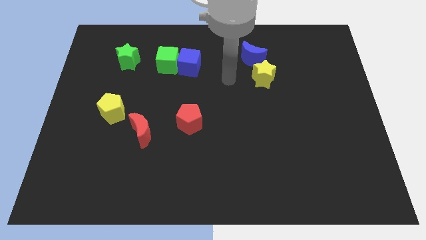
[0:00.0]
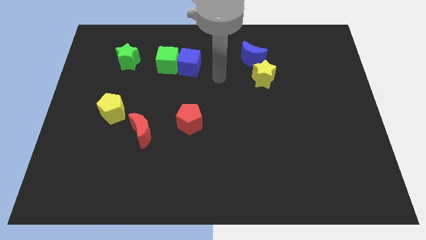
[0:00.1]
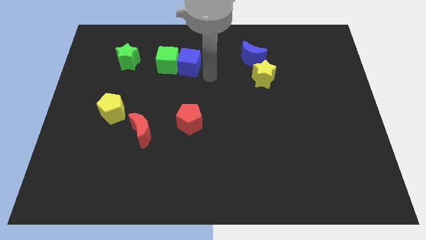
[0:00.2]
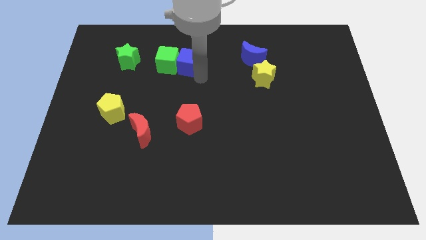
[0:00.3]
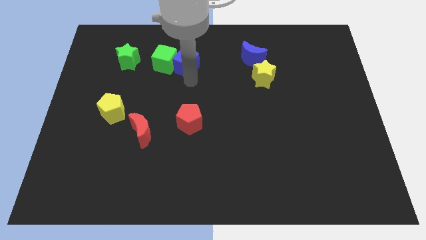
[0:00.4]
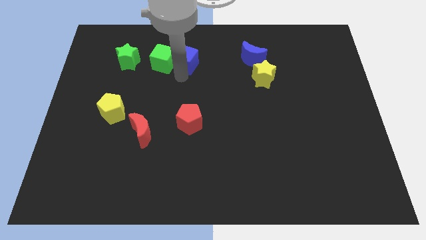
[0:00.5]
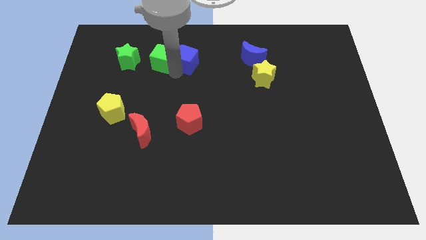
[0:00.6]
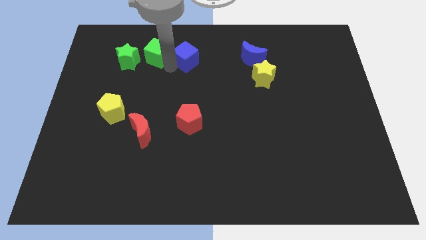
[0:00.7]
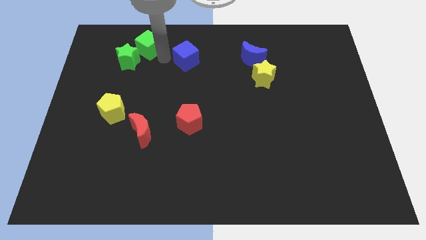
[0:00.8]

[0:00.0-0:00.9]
pull the blue cube apart from the green cube

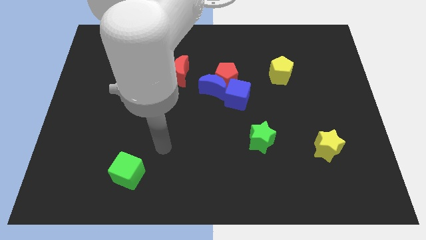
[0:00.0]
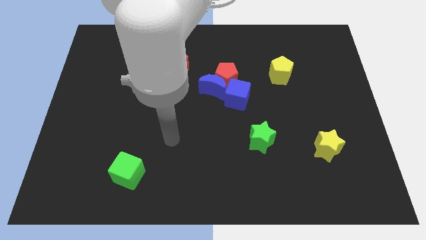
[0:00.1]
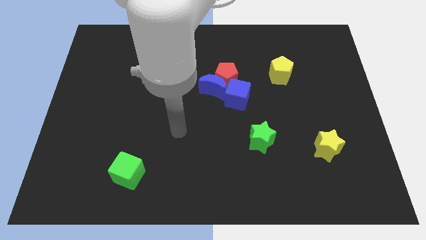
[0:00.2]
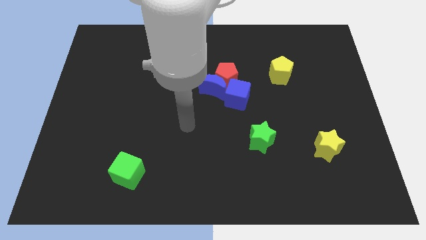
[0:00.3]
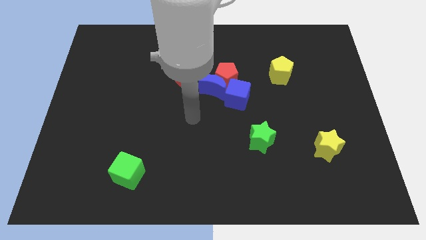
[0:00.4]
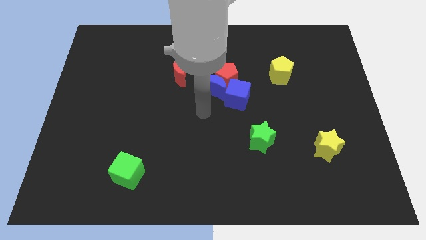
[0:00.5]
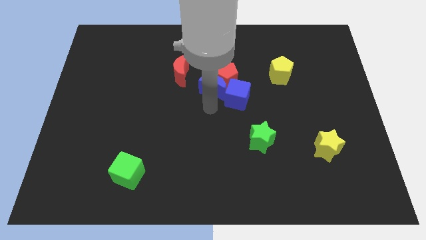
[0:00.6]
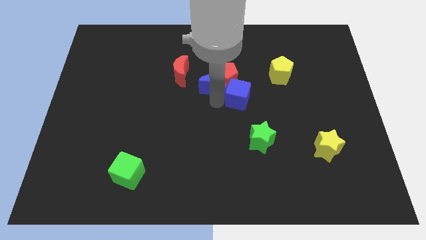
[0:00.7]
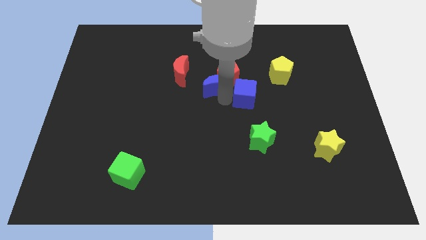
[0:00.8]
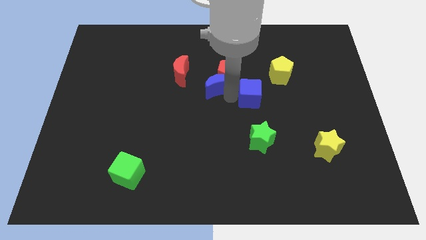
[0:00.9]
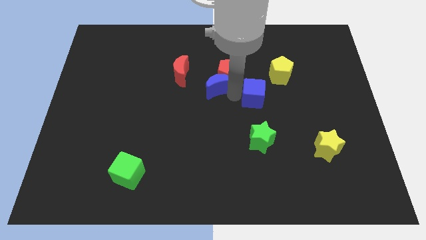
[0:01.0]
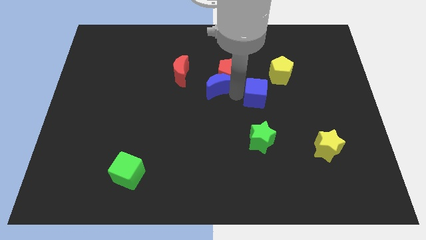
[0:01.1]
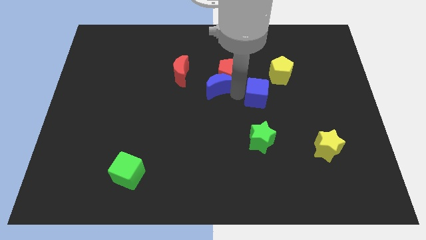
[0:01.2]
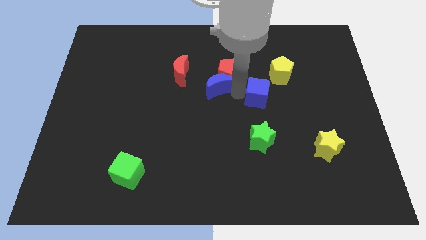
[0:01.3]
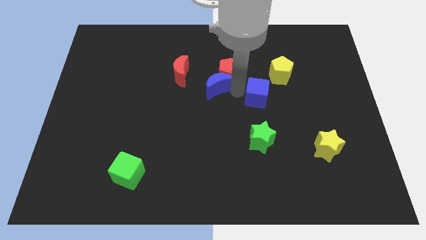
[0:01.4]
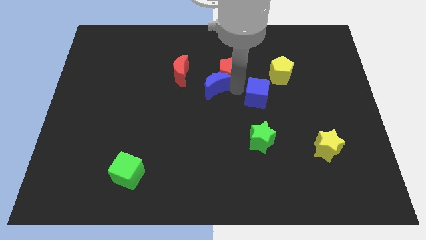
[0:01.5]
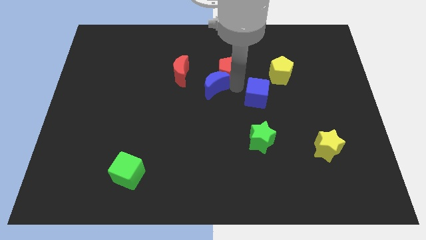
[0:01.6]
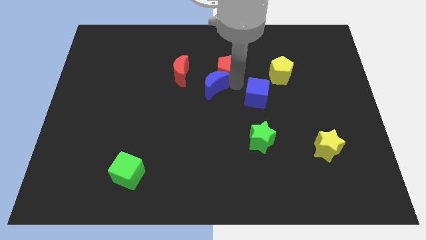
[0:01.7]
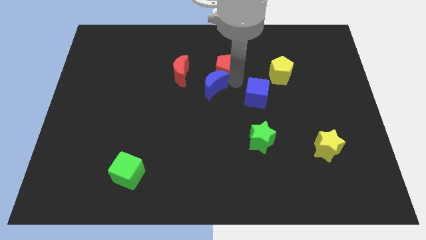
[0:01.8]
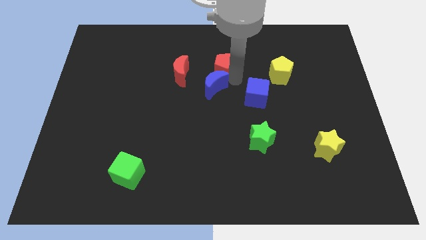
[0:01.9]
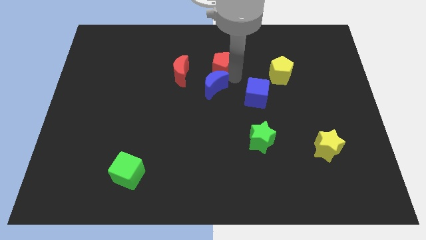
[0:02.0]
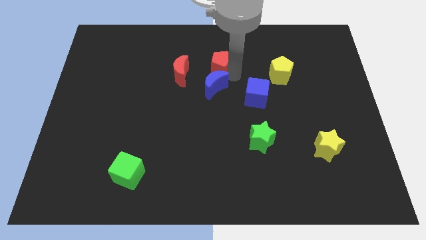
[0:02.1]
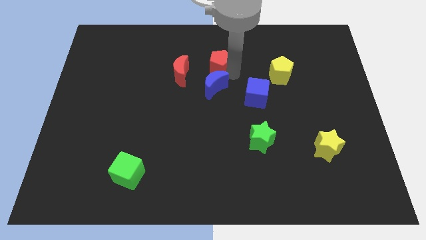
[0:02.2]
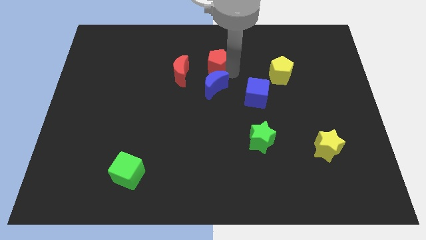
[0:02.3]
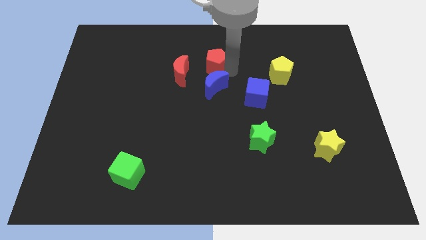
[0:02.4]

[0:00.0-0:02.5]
move the red pentagon away from the blue moon and blue cube

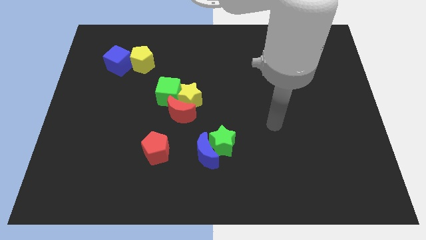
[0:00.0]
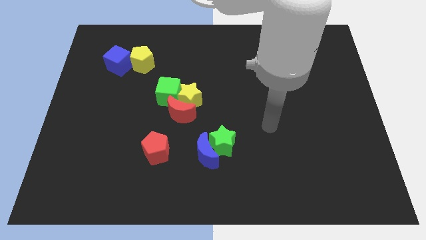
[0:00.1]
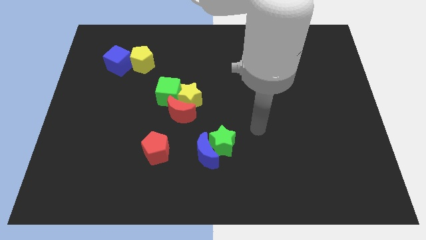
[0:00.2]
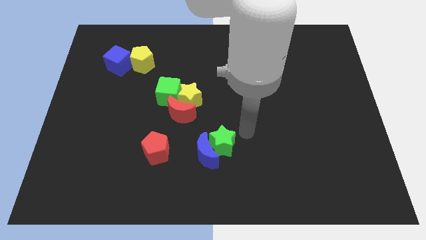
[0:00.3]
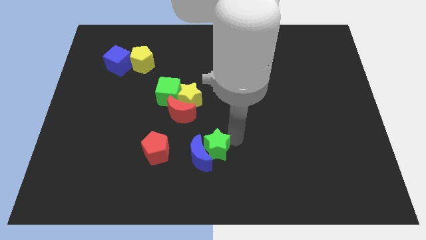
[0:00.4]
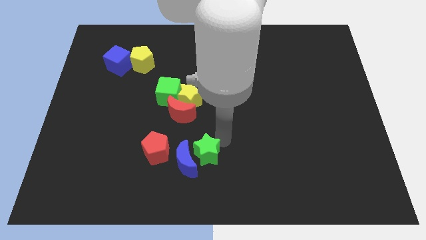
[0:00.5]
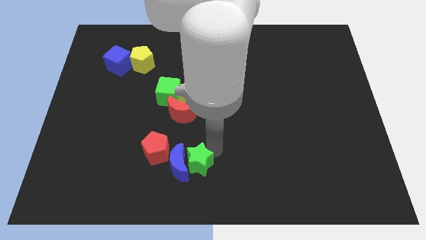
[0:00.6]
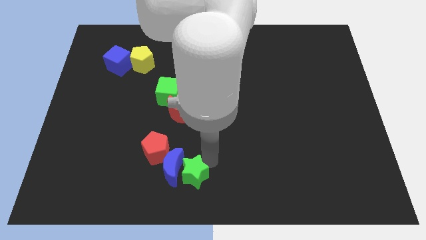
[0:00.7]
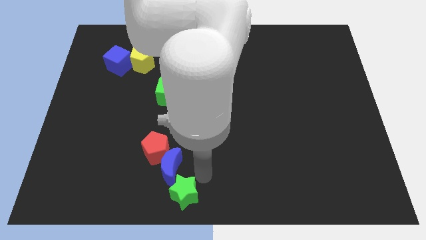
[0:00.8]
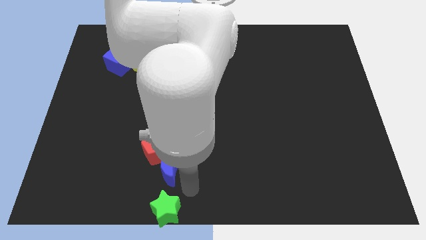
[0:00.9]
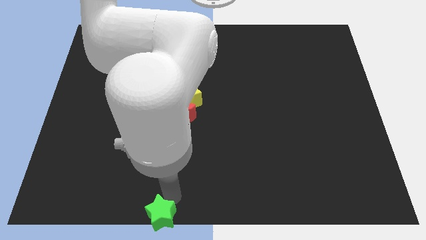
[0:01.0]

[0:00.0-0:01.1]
separate the blue moon from the green star

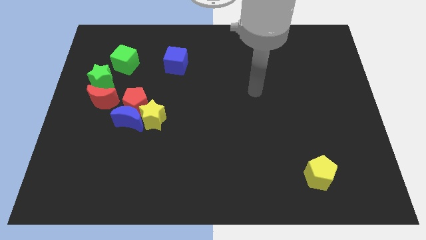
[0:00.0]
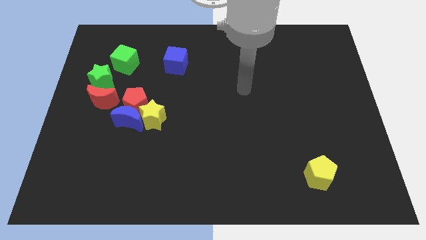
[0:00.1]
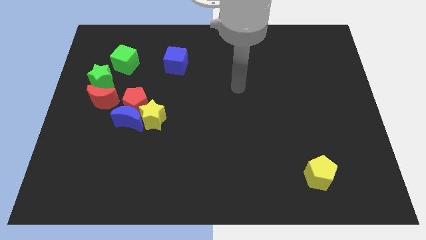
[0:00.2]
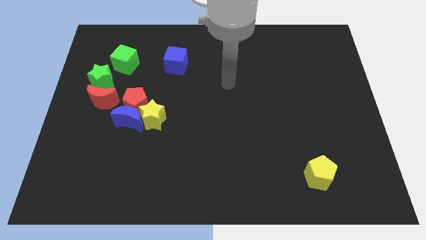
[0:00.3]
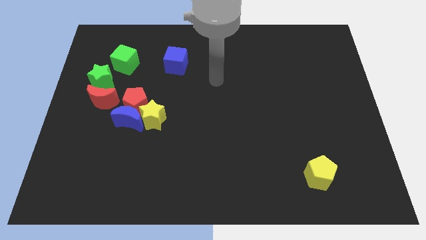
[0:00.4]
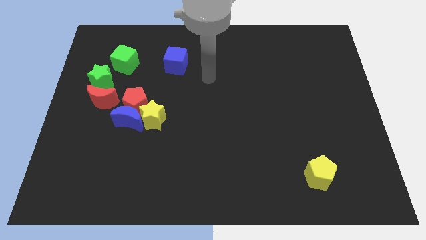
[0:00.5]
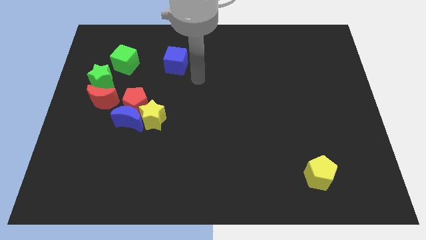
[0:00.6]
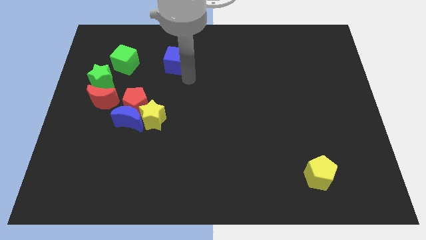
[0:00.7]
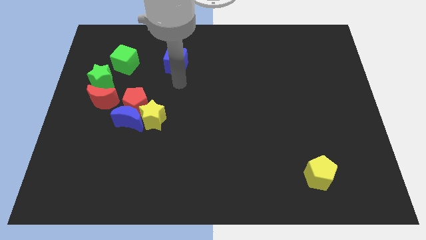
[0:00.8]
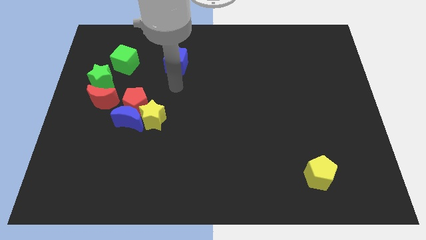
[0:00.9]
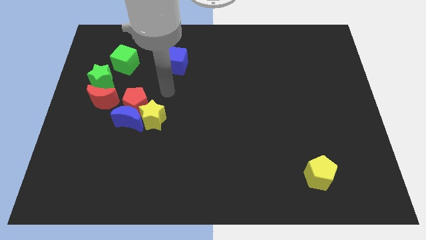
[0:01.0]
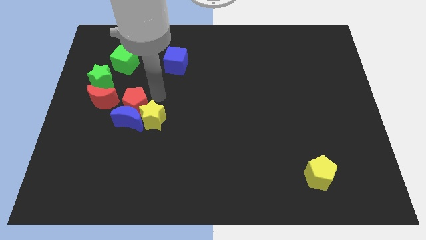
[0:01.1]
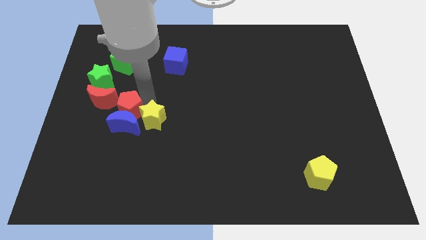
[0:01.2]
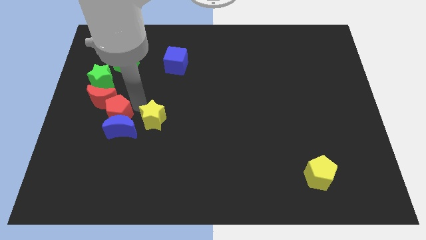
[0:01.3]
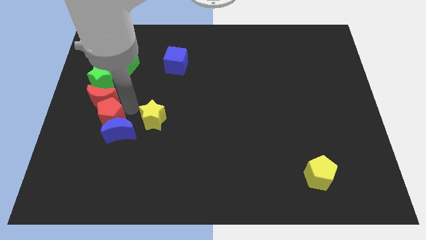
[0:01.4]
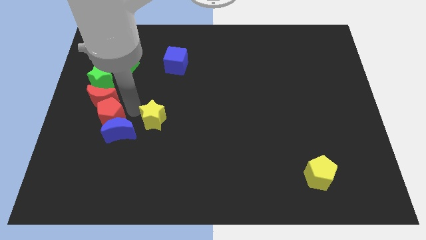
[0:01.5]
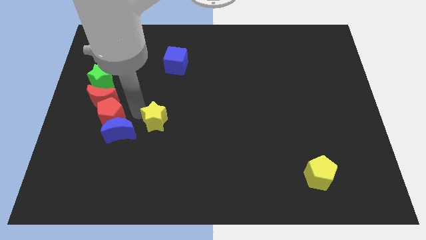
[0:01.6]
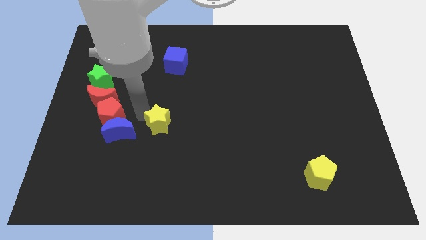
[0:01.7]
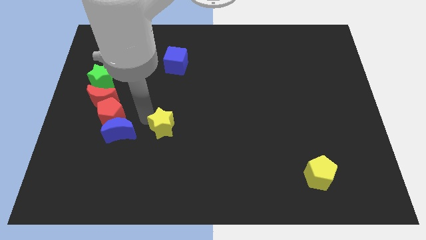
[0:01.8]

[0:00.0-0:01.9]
separate the yellow star from the blue moon and red pentagon

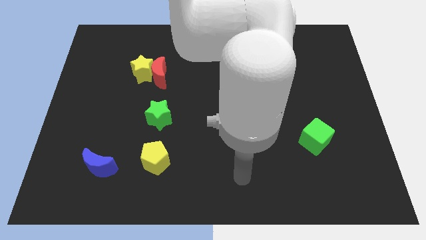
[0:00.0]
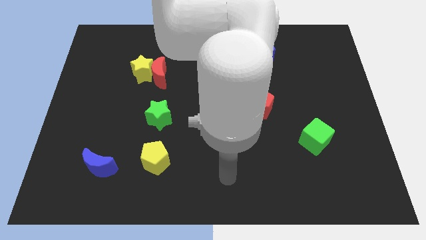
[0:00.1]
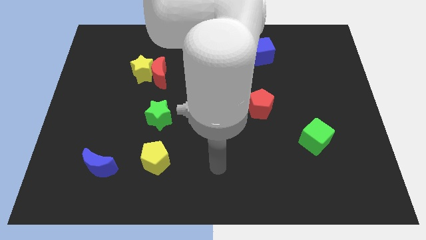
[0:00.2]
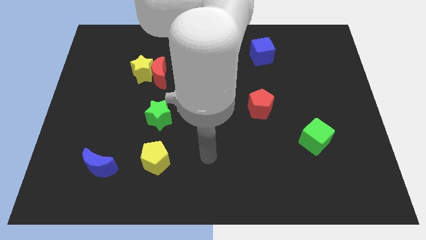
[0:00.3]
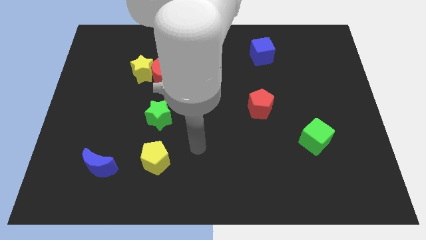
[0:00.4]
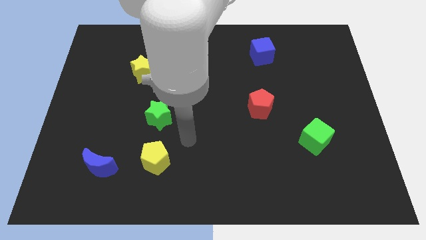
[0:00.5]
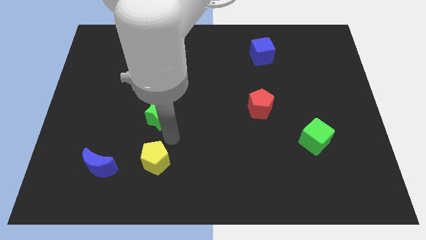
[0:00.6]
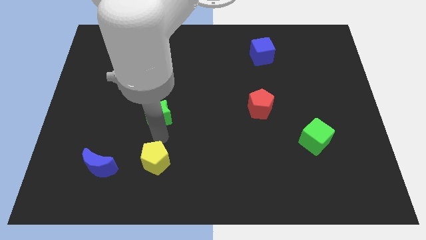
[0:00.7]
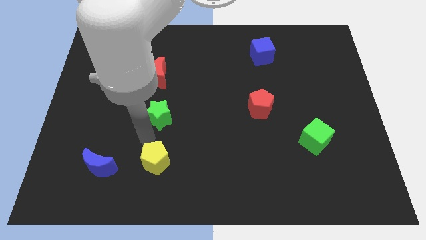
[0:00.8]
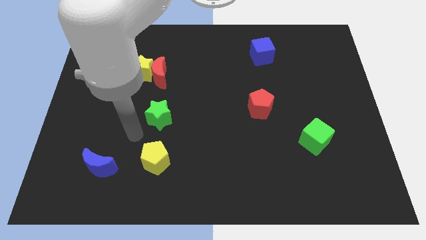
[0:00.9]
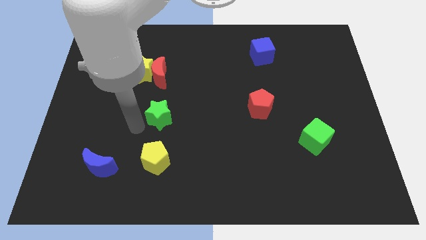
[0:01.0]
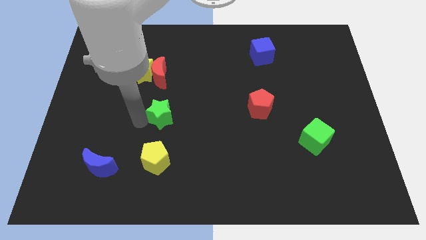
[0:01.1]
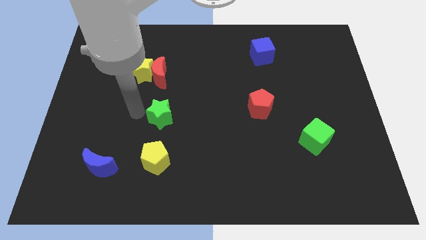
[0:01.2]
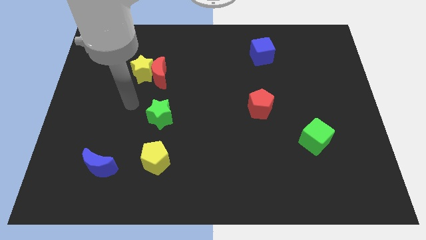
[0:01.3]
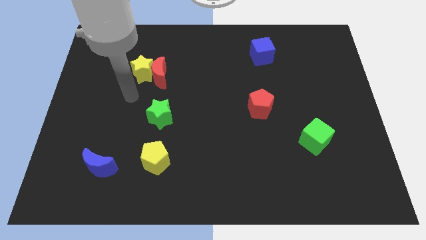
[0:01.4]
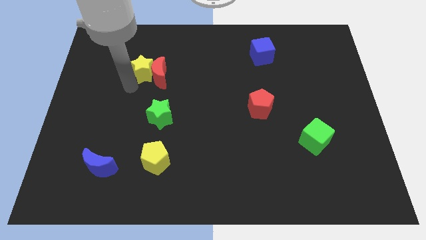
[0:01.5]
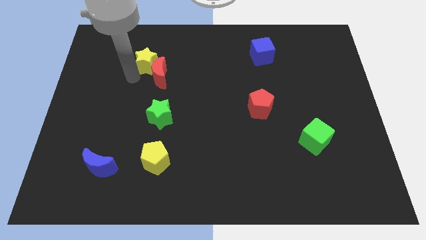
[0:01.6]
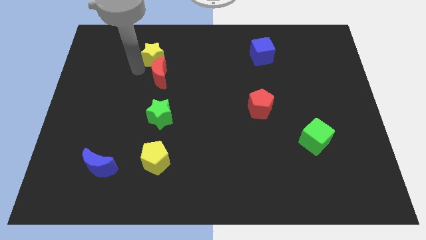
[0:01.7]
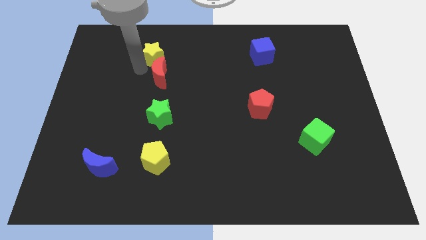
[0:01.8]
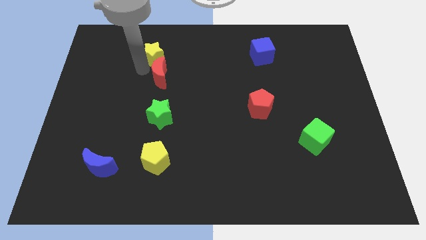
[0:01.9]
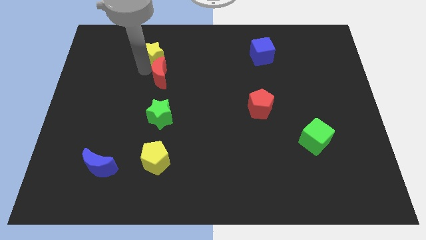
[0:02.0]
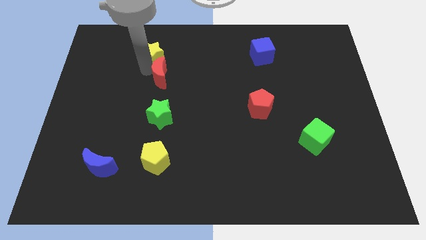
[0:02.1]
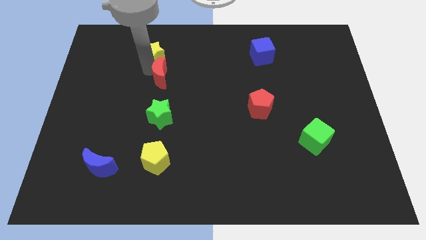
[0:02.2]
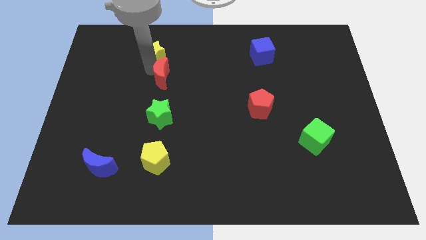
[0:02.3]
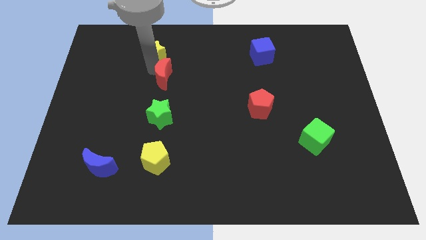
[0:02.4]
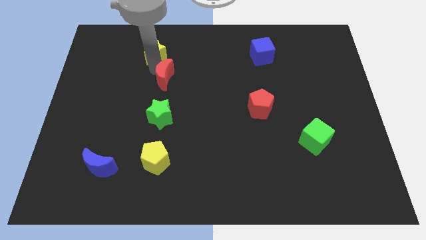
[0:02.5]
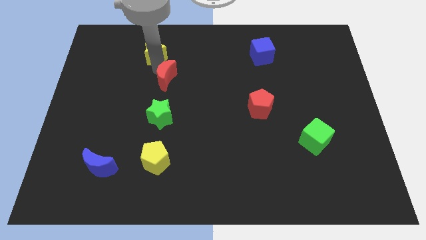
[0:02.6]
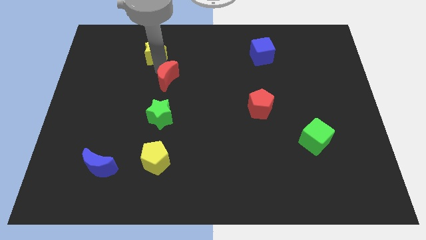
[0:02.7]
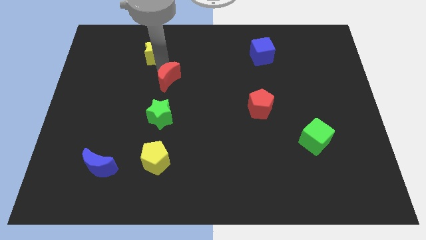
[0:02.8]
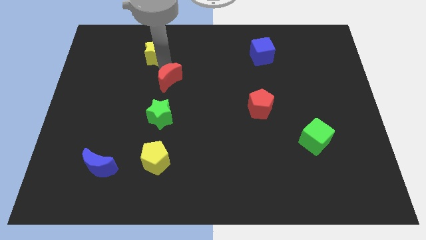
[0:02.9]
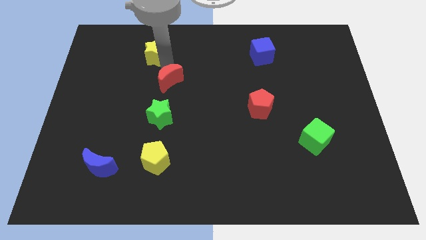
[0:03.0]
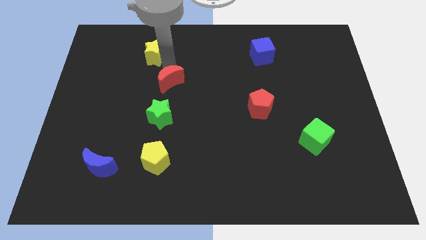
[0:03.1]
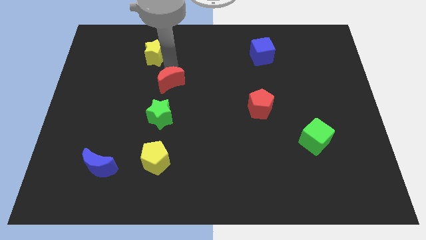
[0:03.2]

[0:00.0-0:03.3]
pull the red moon apart from the yellow star
